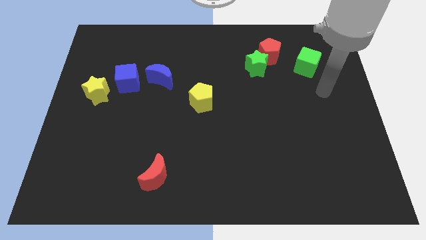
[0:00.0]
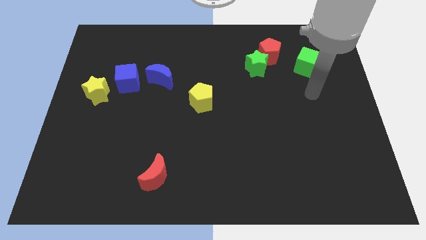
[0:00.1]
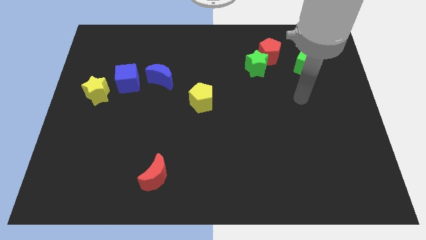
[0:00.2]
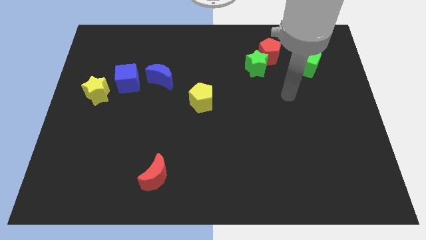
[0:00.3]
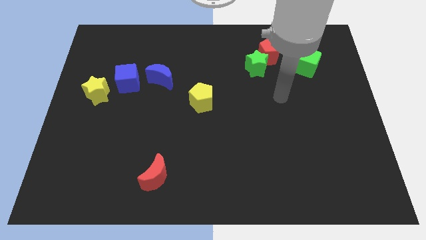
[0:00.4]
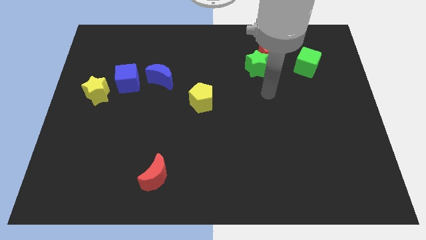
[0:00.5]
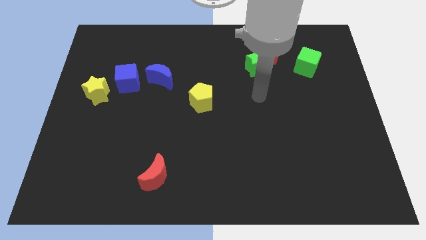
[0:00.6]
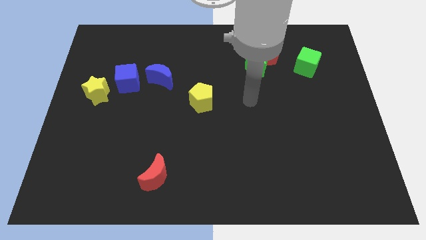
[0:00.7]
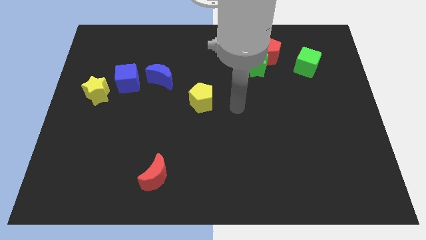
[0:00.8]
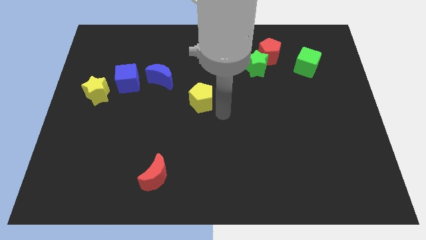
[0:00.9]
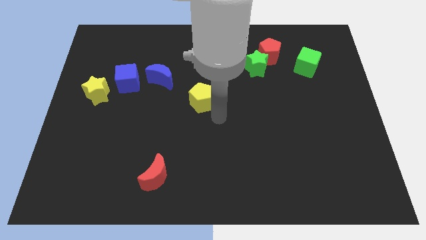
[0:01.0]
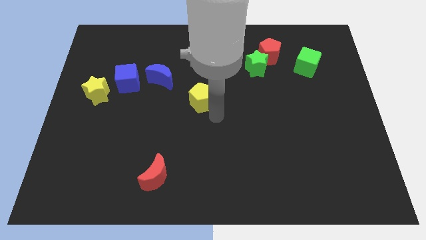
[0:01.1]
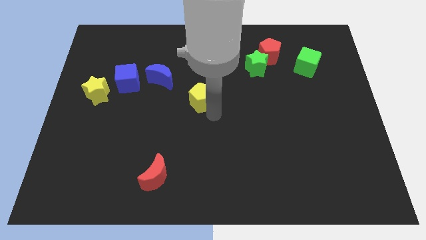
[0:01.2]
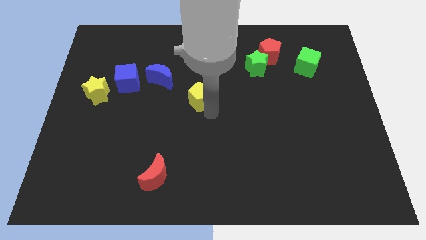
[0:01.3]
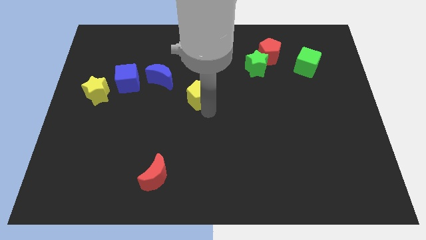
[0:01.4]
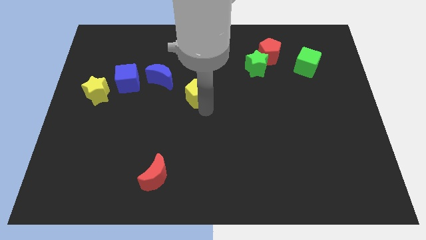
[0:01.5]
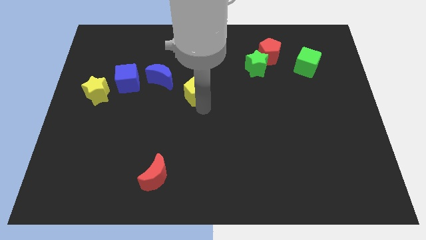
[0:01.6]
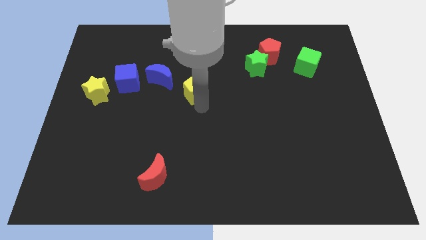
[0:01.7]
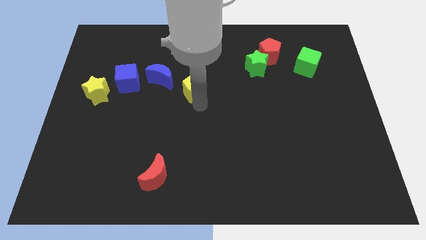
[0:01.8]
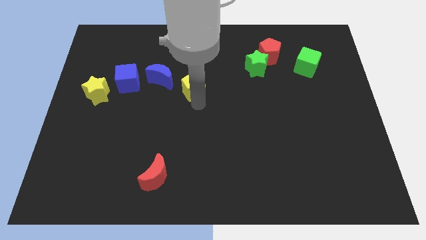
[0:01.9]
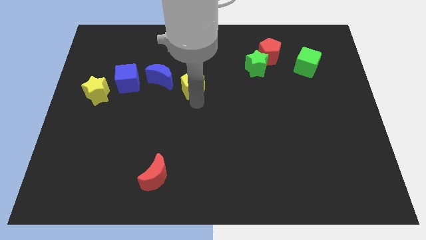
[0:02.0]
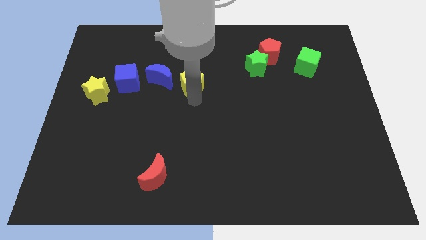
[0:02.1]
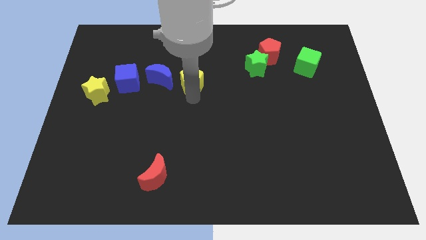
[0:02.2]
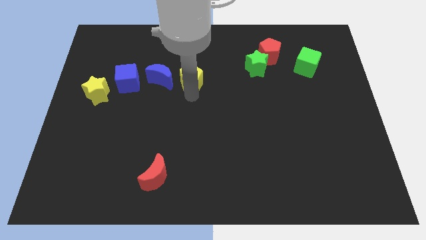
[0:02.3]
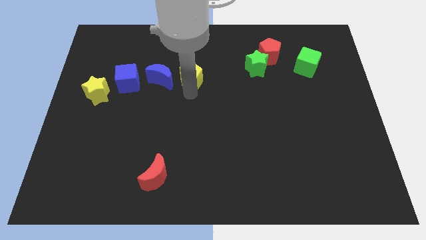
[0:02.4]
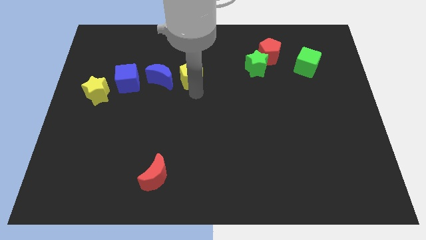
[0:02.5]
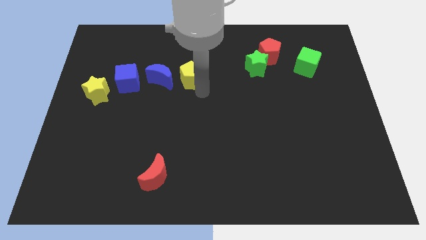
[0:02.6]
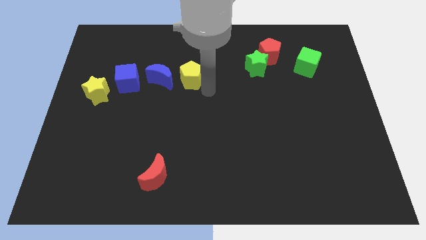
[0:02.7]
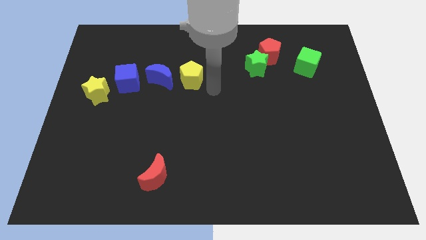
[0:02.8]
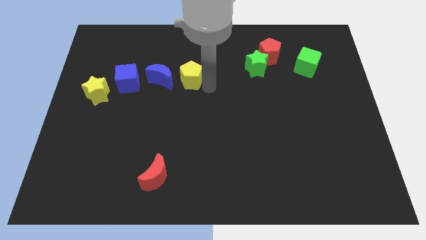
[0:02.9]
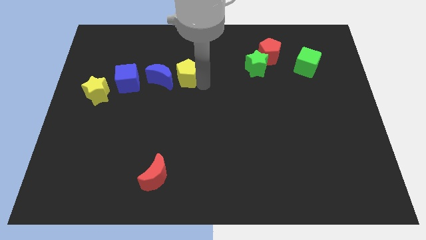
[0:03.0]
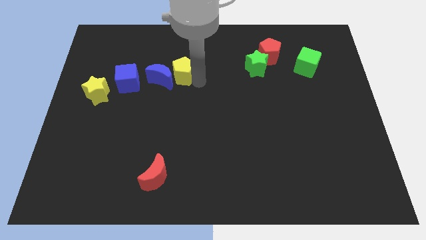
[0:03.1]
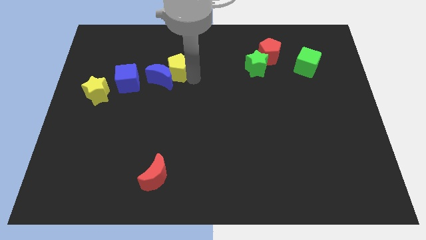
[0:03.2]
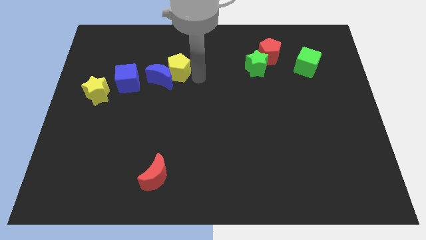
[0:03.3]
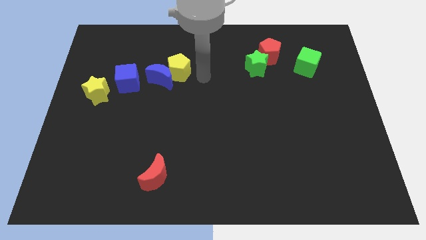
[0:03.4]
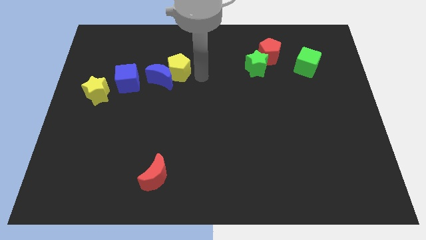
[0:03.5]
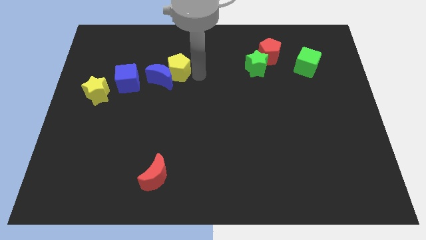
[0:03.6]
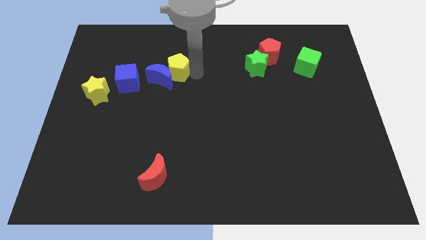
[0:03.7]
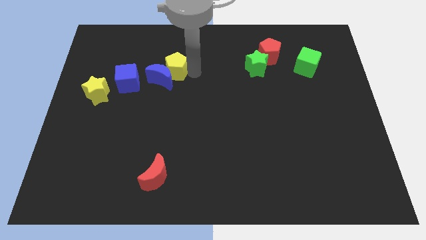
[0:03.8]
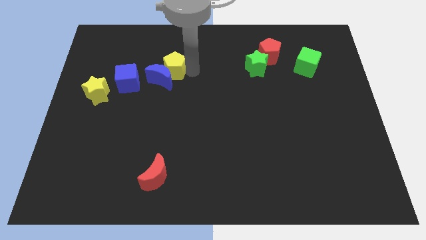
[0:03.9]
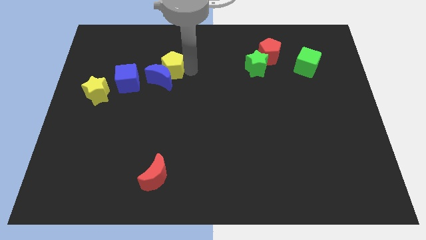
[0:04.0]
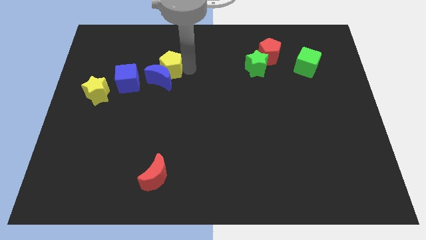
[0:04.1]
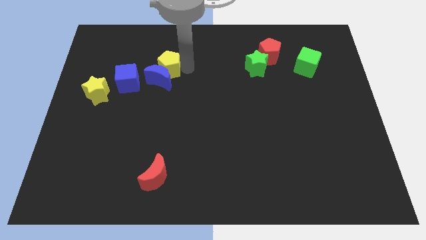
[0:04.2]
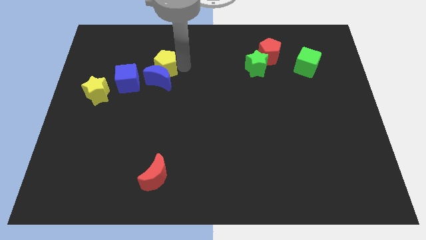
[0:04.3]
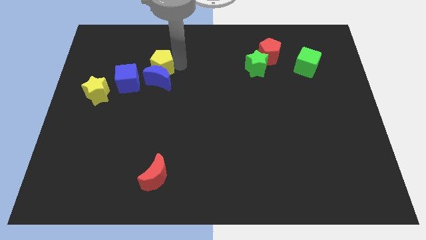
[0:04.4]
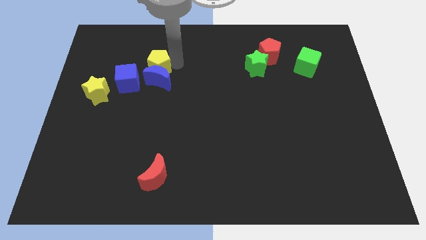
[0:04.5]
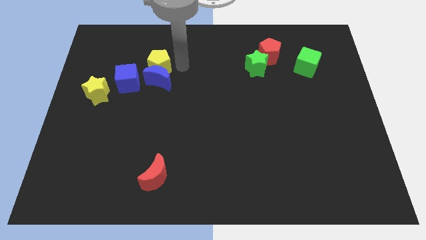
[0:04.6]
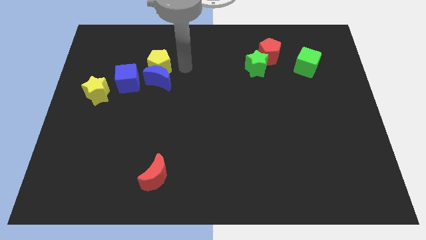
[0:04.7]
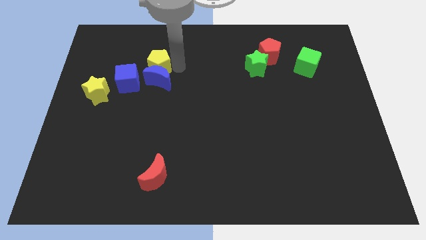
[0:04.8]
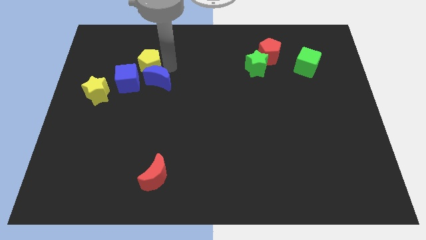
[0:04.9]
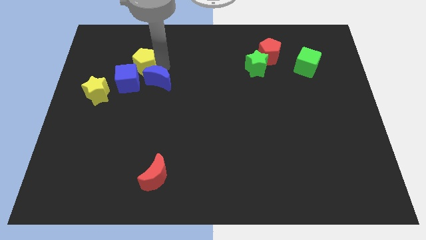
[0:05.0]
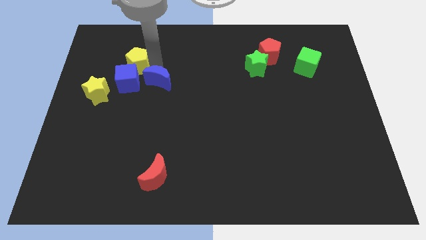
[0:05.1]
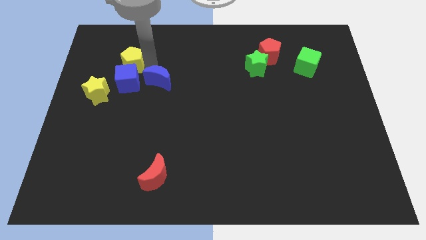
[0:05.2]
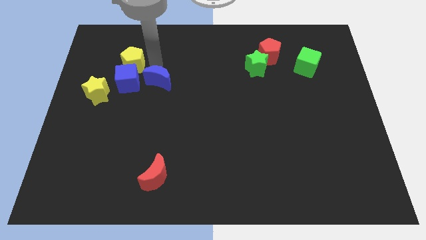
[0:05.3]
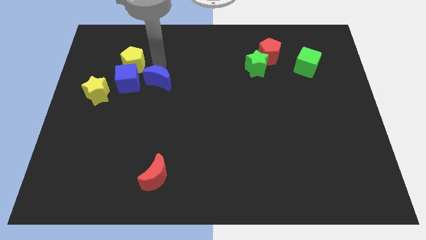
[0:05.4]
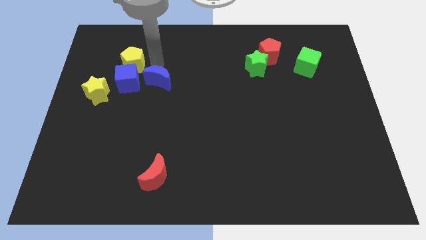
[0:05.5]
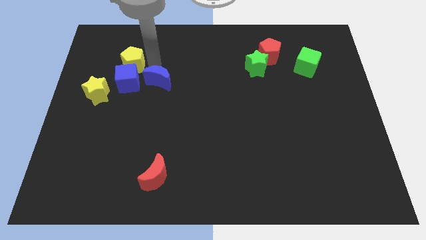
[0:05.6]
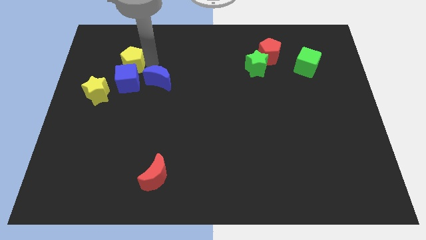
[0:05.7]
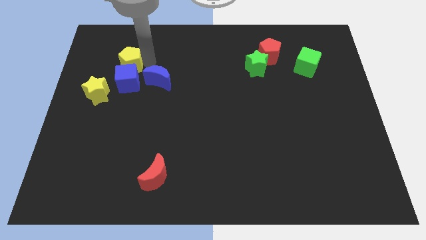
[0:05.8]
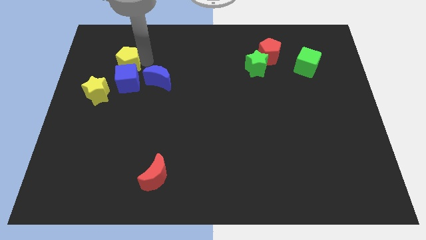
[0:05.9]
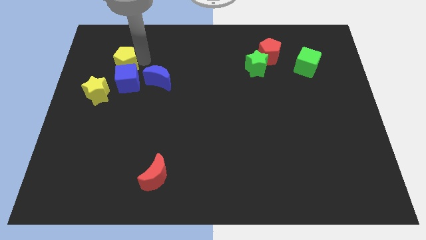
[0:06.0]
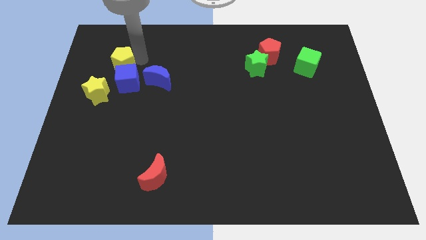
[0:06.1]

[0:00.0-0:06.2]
slide the yellow pentagon to the top side of the yellow star

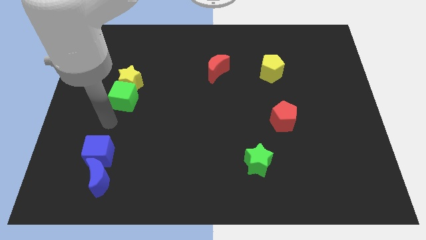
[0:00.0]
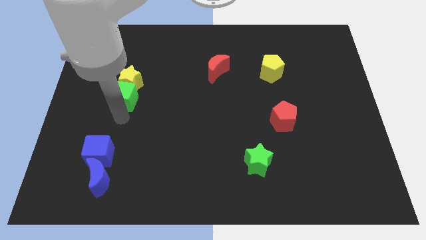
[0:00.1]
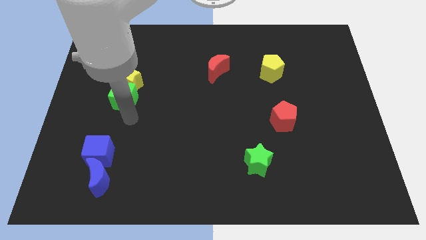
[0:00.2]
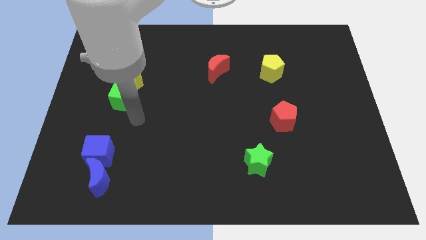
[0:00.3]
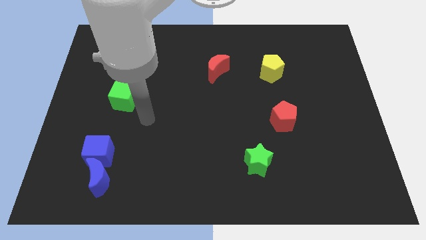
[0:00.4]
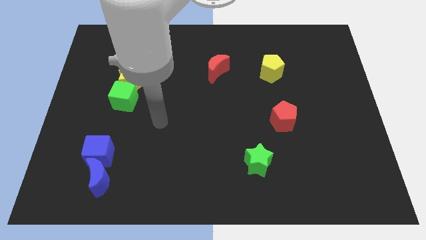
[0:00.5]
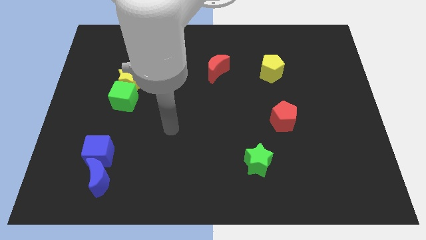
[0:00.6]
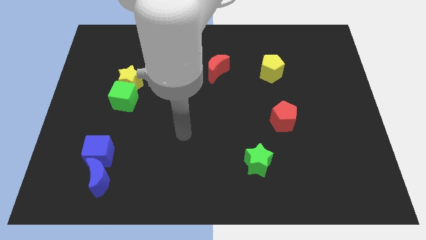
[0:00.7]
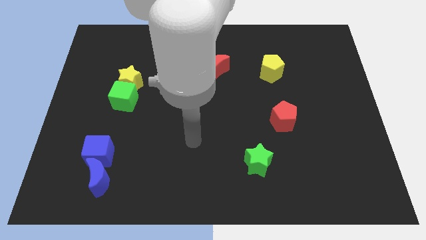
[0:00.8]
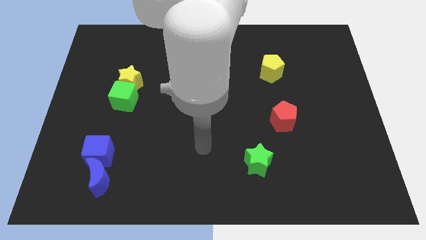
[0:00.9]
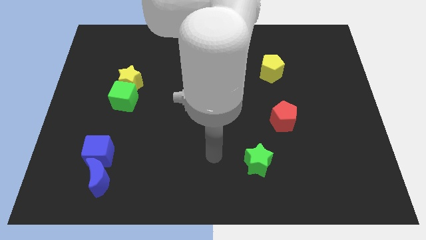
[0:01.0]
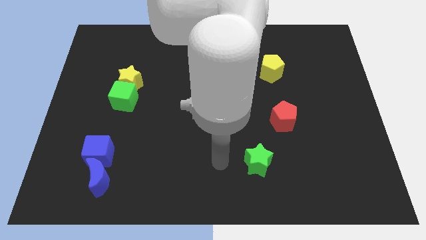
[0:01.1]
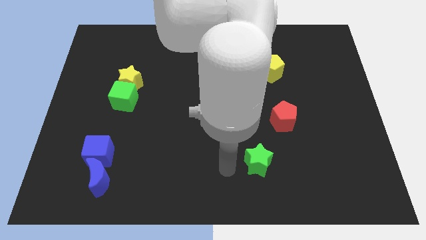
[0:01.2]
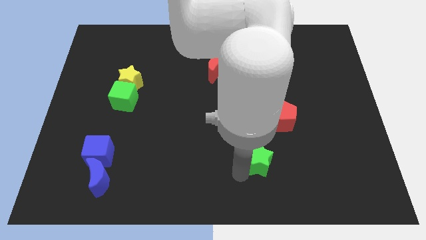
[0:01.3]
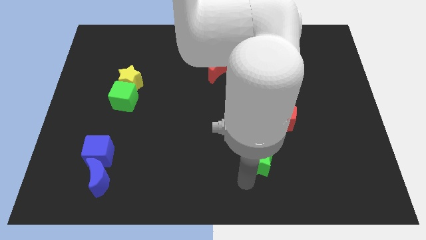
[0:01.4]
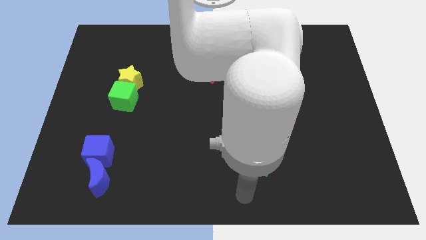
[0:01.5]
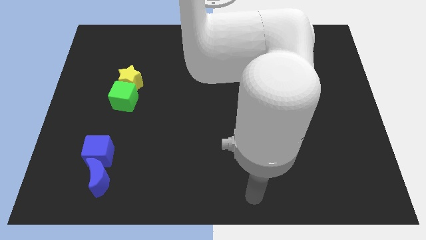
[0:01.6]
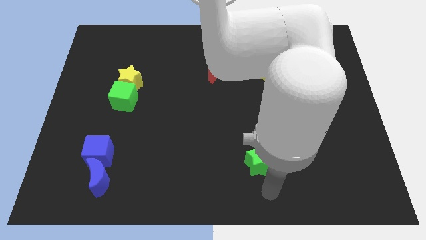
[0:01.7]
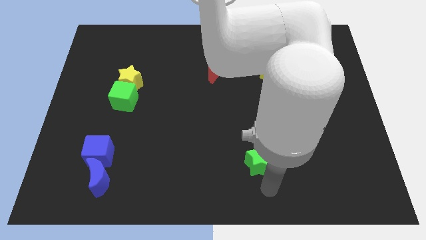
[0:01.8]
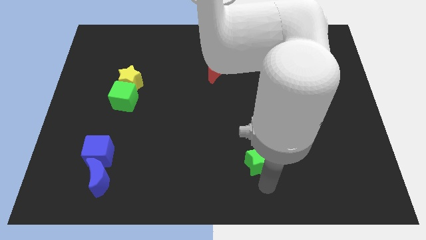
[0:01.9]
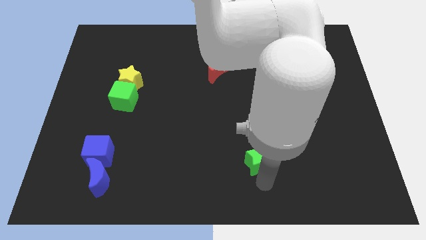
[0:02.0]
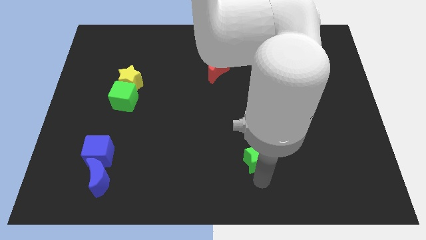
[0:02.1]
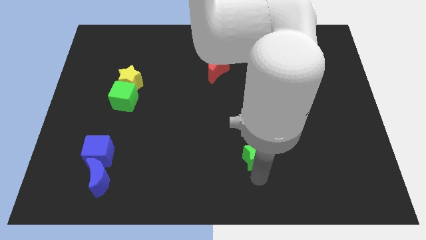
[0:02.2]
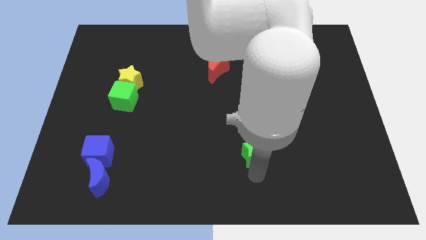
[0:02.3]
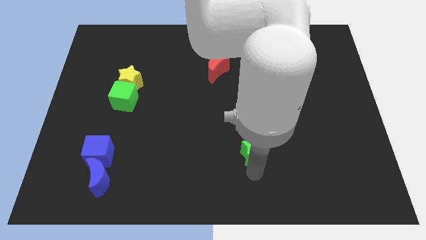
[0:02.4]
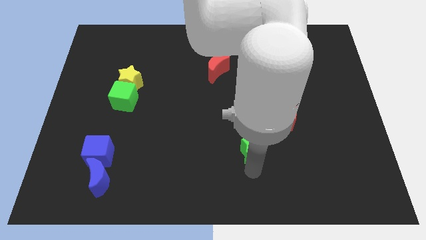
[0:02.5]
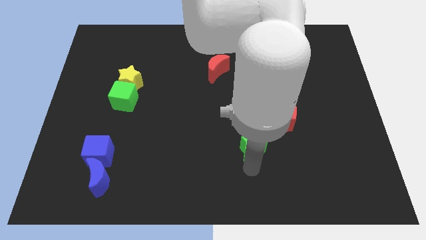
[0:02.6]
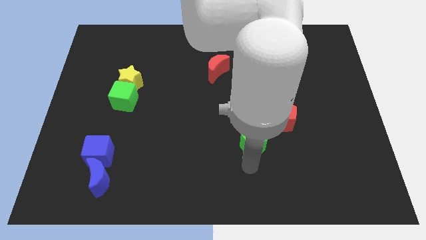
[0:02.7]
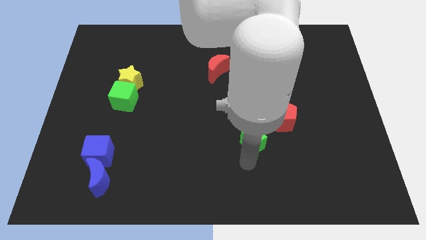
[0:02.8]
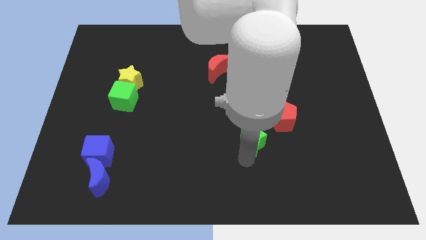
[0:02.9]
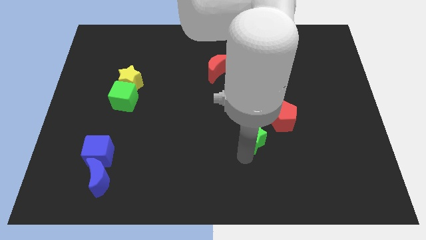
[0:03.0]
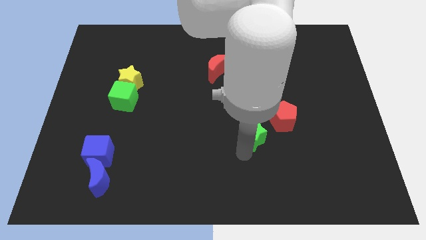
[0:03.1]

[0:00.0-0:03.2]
push the green star to the left side of the red pentagon
